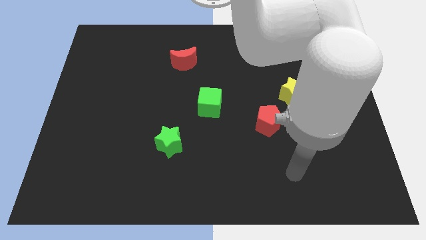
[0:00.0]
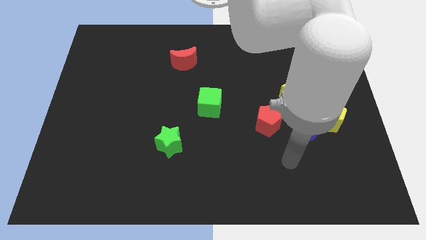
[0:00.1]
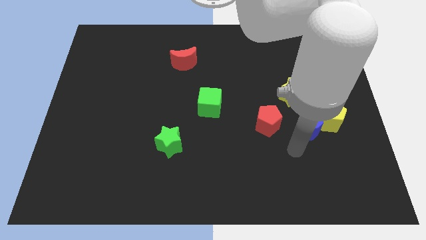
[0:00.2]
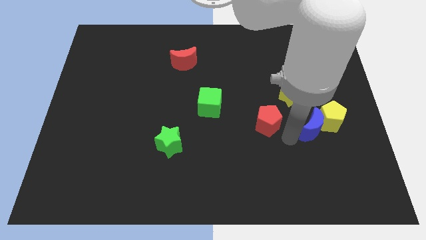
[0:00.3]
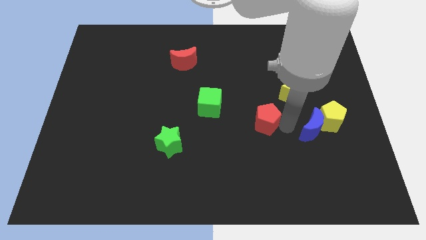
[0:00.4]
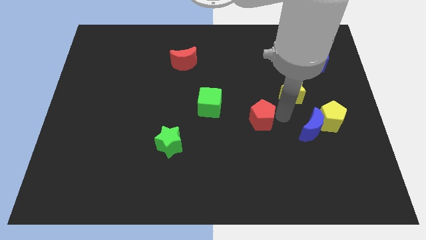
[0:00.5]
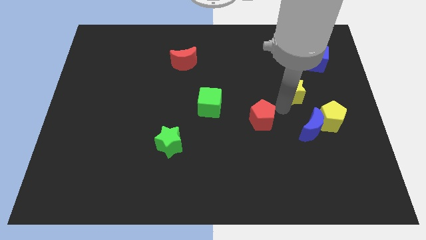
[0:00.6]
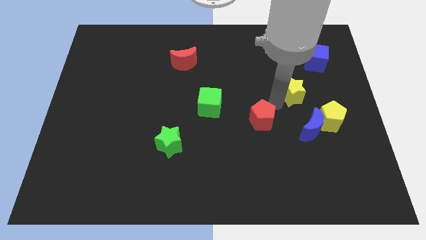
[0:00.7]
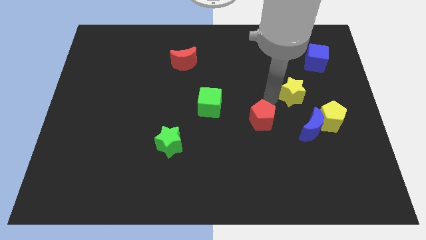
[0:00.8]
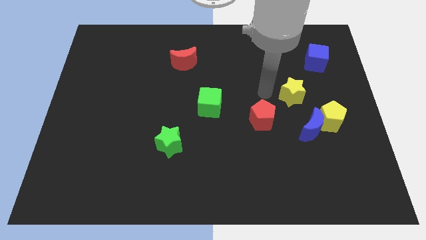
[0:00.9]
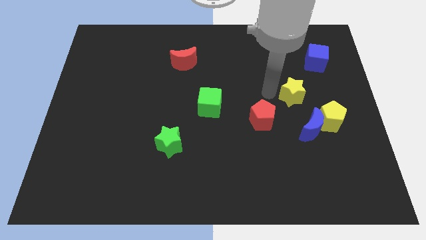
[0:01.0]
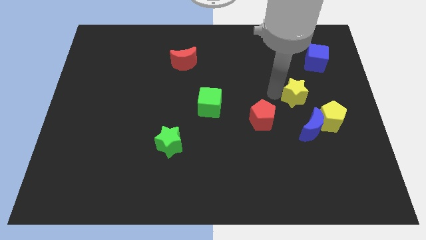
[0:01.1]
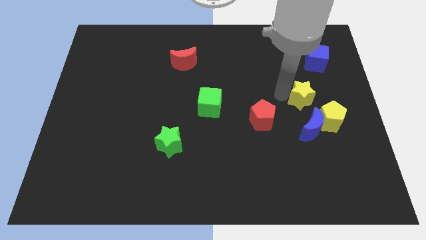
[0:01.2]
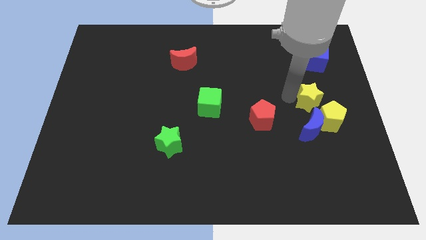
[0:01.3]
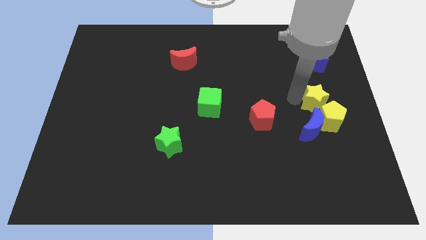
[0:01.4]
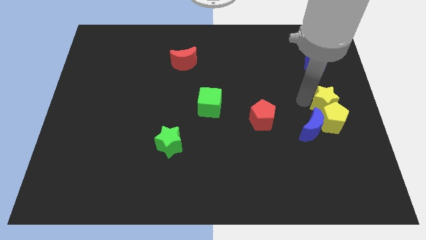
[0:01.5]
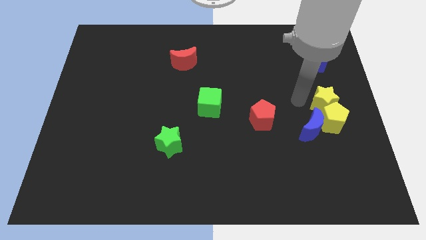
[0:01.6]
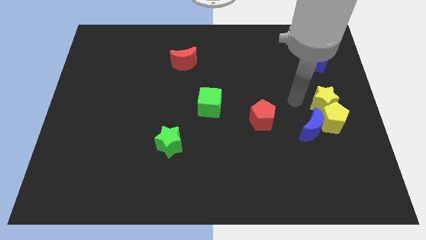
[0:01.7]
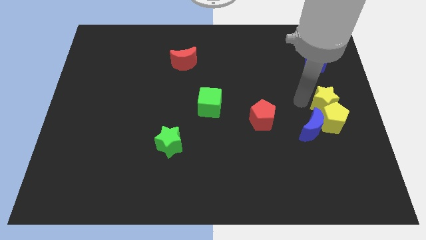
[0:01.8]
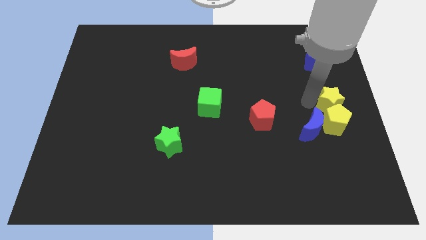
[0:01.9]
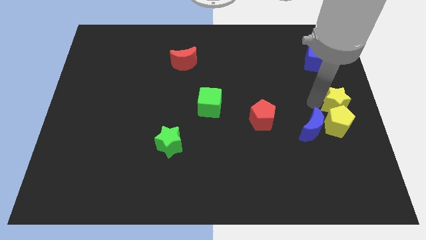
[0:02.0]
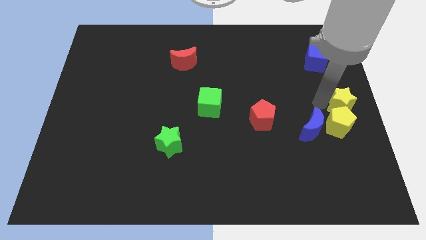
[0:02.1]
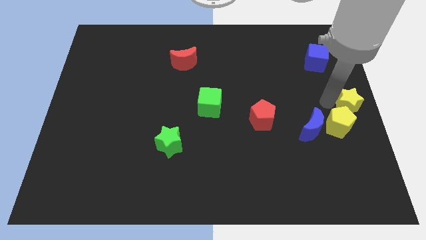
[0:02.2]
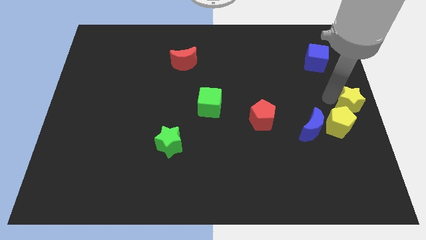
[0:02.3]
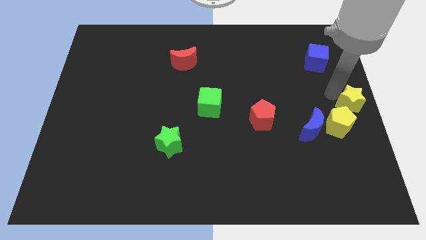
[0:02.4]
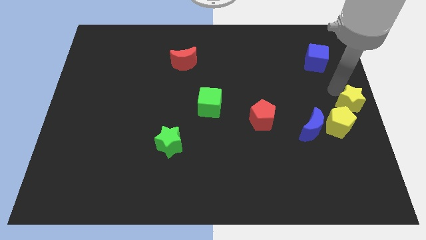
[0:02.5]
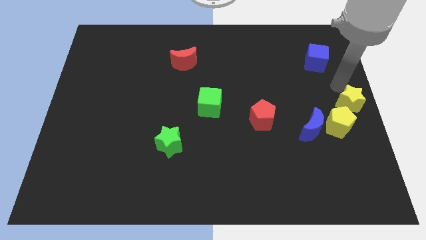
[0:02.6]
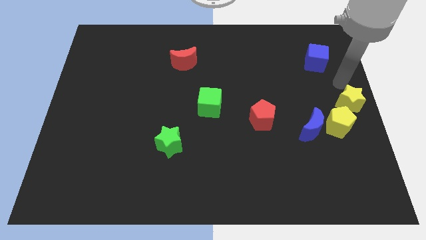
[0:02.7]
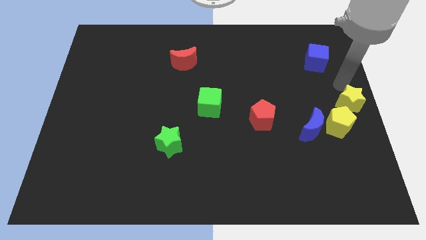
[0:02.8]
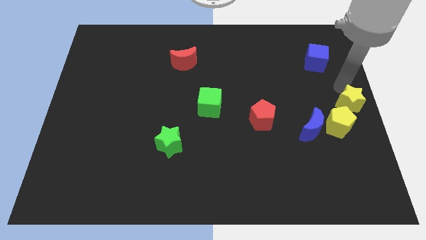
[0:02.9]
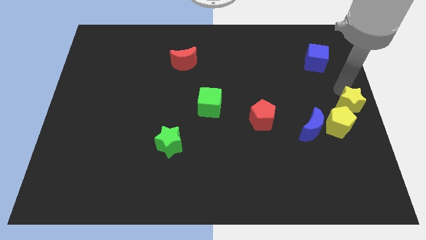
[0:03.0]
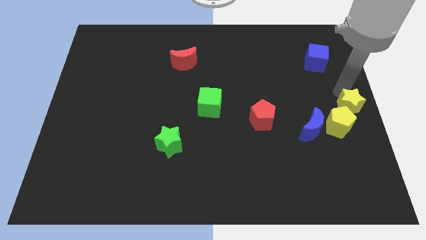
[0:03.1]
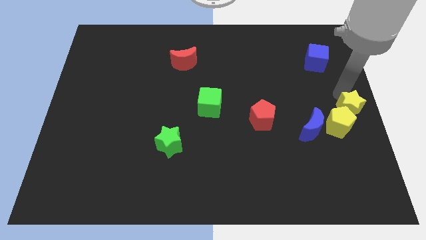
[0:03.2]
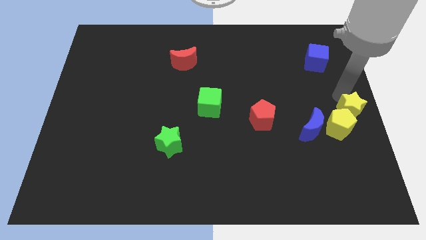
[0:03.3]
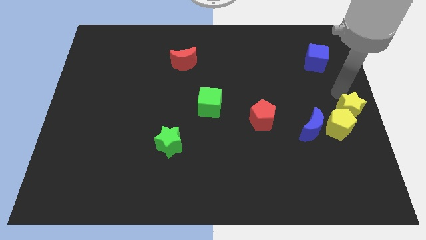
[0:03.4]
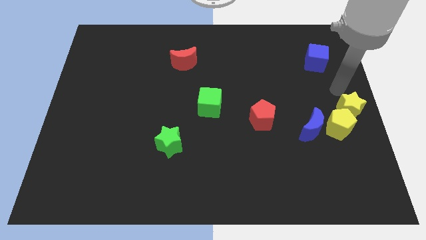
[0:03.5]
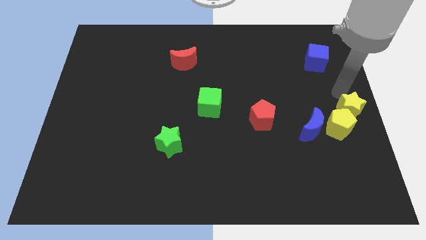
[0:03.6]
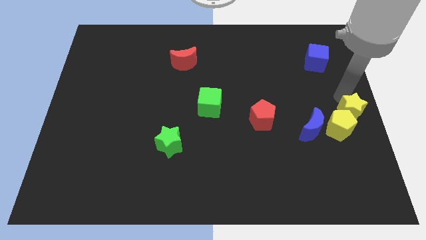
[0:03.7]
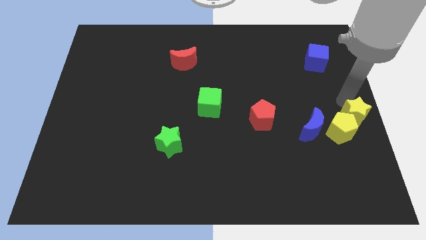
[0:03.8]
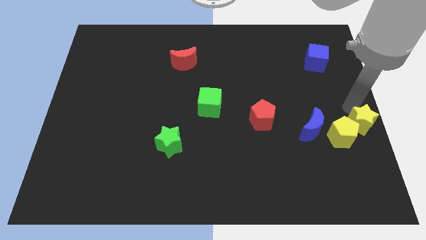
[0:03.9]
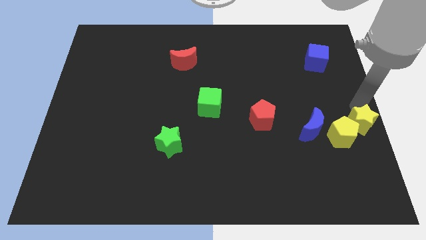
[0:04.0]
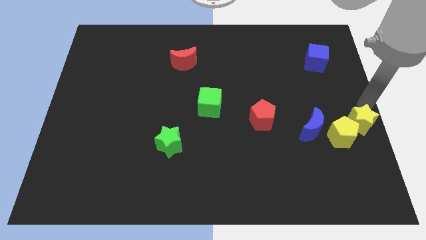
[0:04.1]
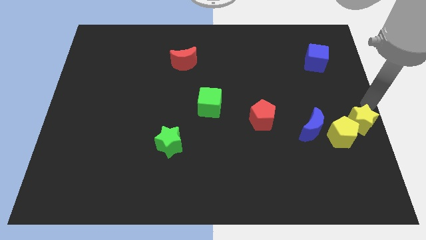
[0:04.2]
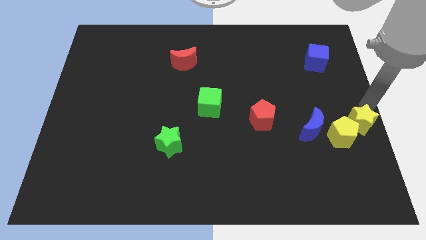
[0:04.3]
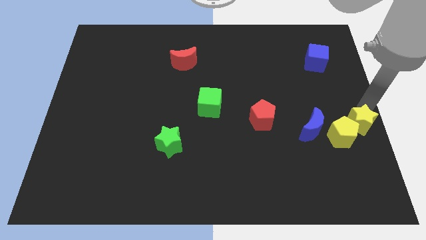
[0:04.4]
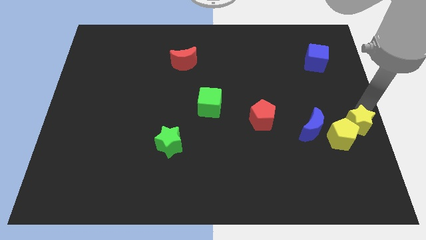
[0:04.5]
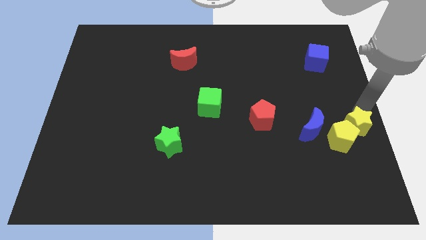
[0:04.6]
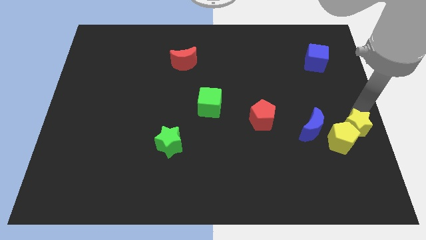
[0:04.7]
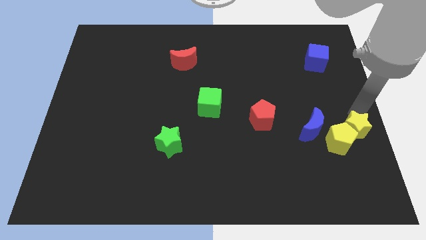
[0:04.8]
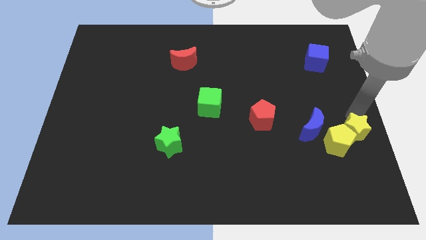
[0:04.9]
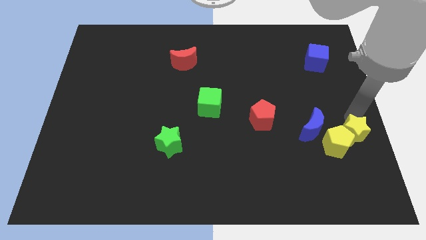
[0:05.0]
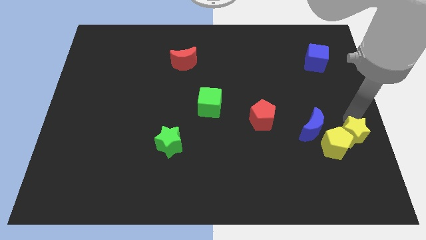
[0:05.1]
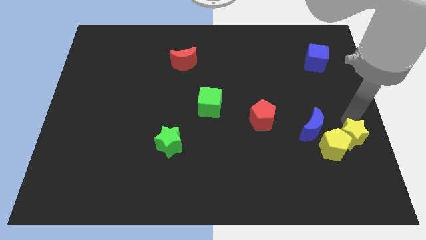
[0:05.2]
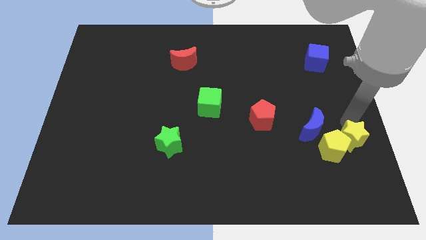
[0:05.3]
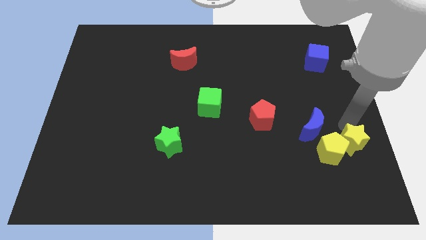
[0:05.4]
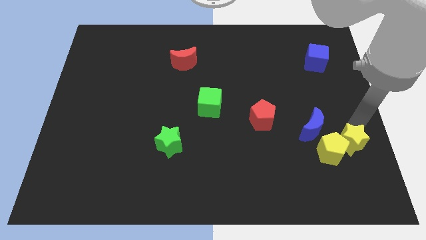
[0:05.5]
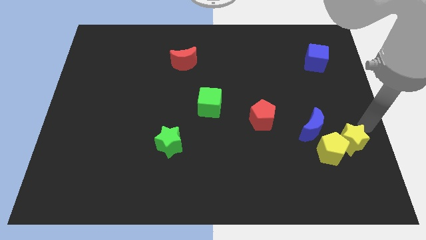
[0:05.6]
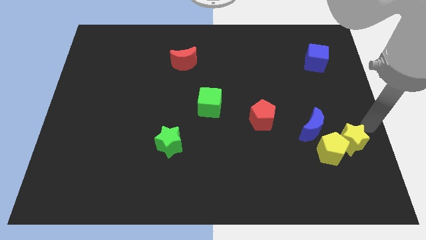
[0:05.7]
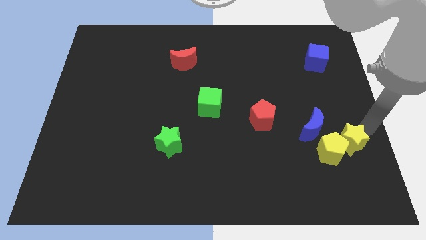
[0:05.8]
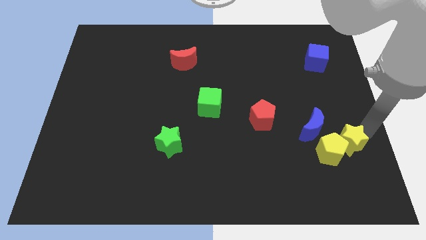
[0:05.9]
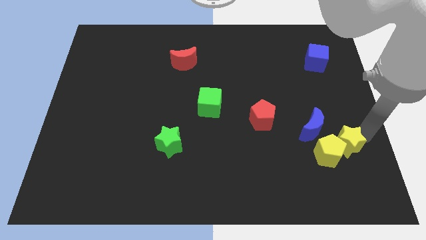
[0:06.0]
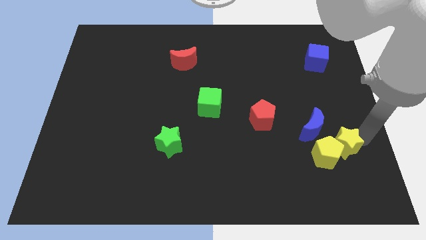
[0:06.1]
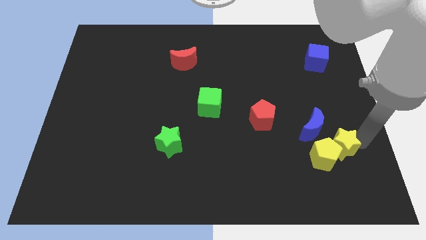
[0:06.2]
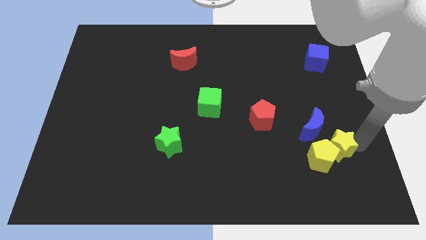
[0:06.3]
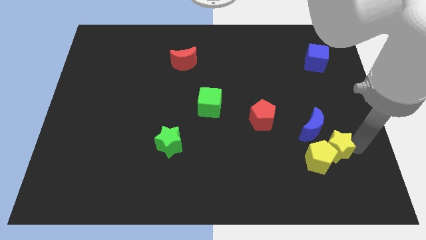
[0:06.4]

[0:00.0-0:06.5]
move the yellow star below the blue moon

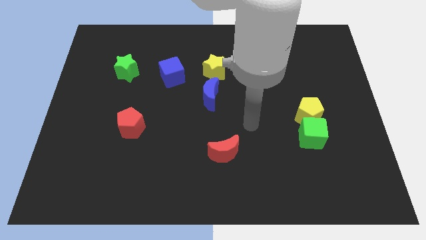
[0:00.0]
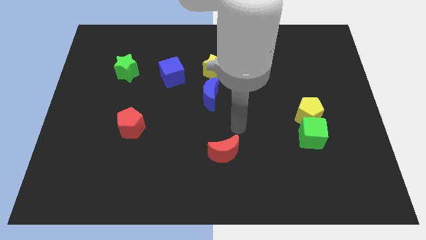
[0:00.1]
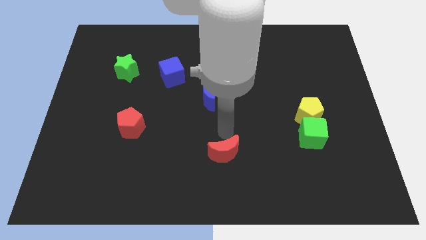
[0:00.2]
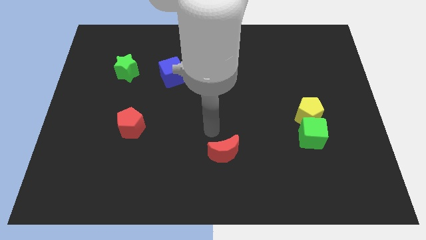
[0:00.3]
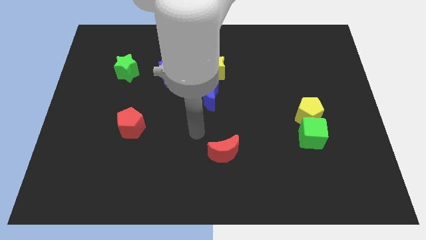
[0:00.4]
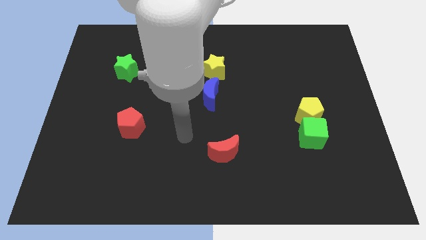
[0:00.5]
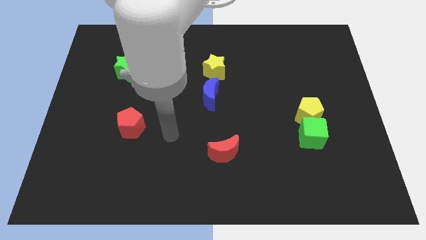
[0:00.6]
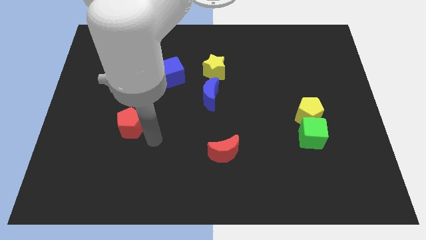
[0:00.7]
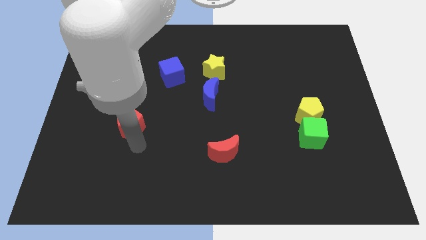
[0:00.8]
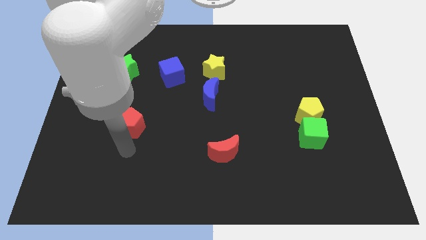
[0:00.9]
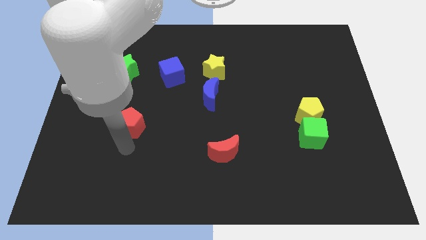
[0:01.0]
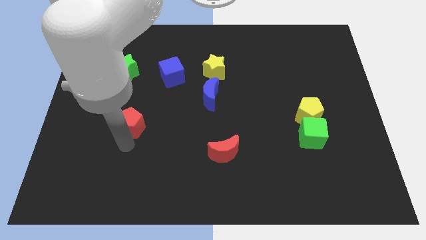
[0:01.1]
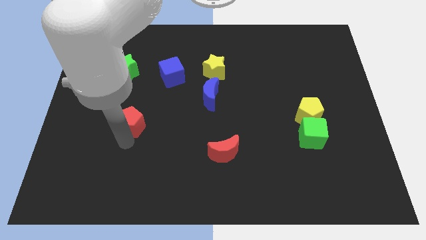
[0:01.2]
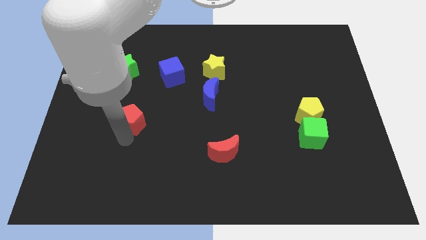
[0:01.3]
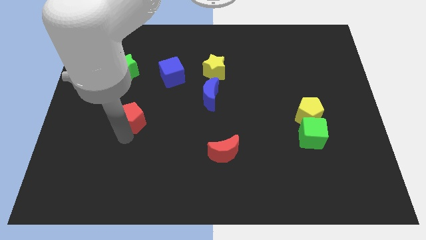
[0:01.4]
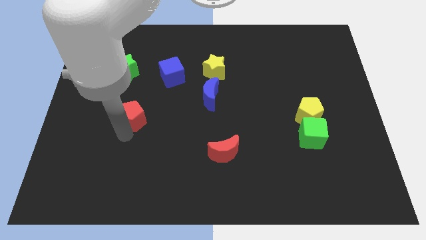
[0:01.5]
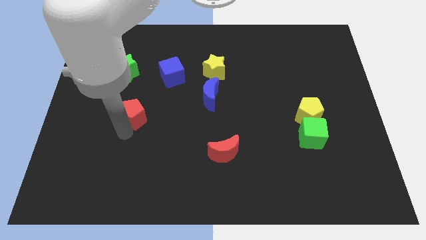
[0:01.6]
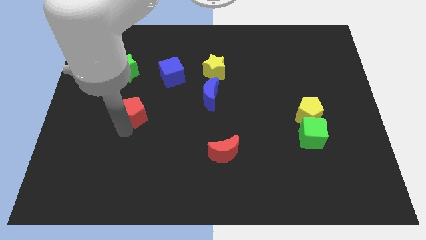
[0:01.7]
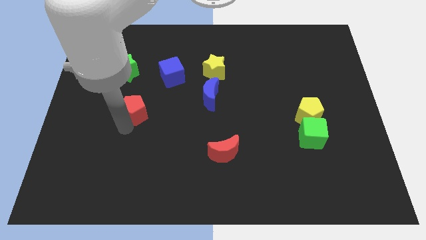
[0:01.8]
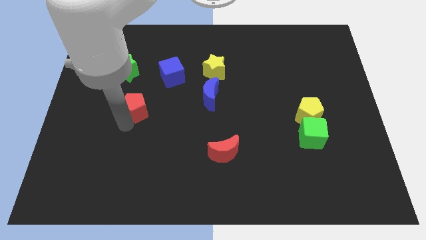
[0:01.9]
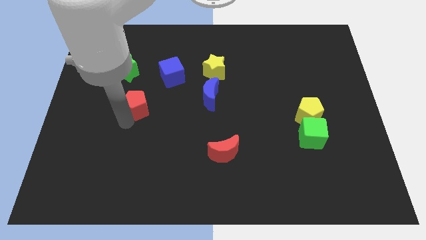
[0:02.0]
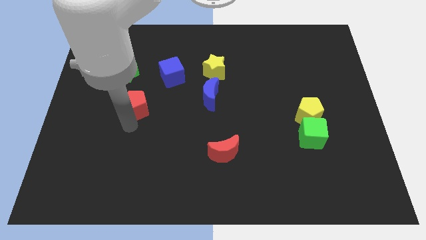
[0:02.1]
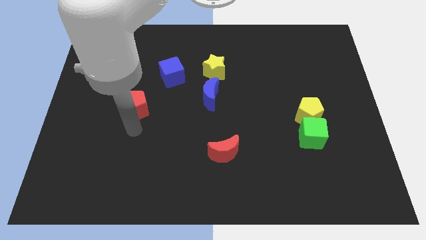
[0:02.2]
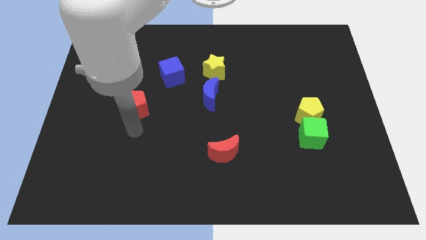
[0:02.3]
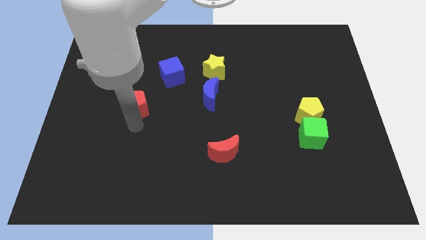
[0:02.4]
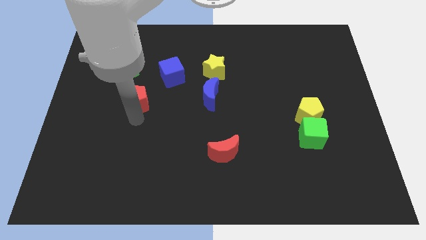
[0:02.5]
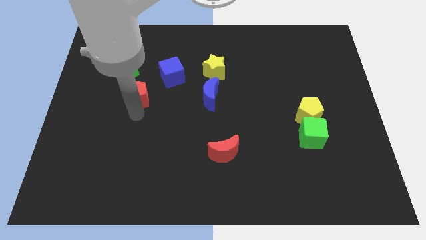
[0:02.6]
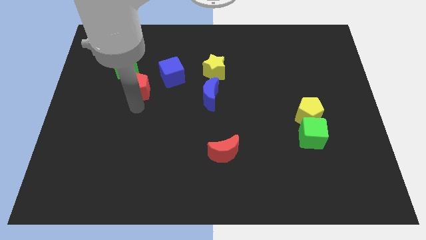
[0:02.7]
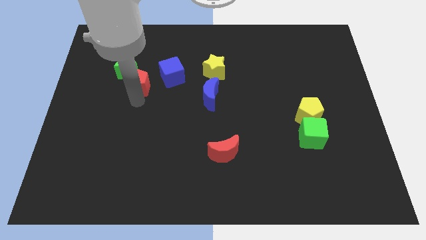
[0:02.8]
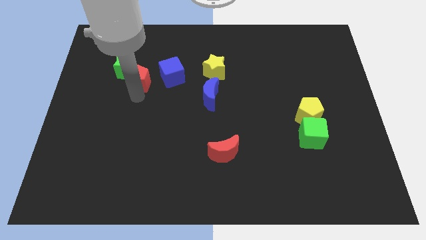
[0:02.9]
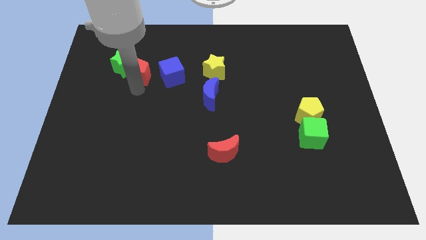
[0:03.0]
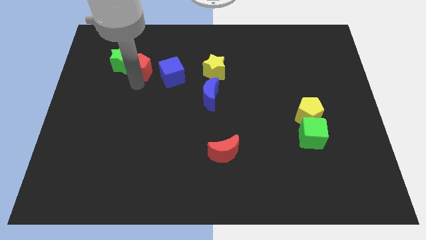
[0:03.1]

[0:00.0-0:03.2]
move the red pentagon diagonally up and to the left of the blue cube
